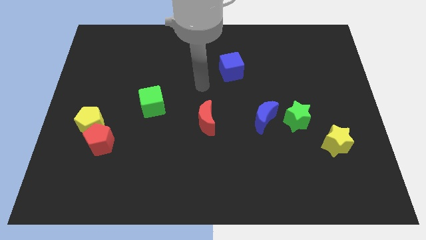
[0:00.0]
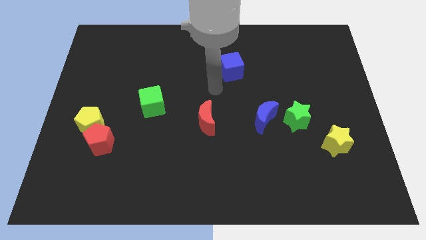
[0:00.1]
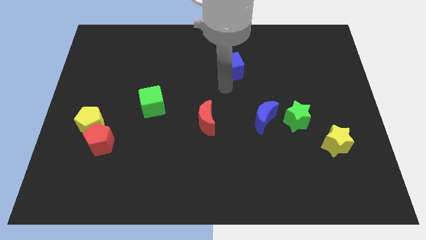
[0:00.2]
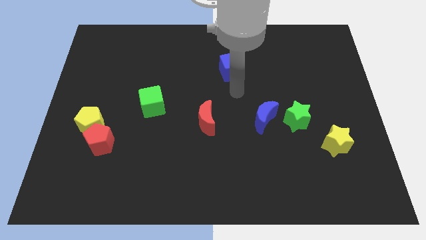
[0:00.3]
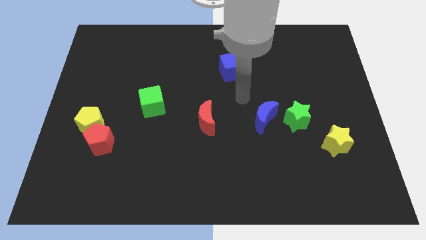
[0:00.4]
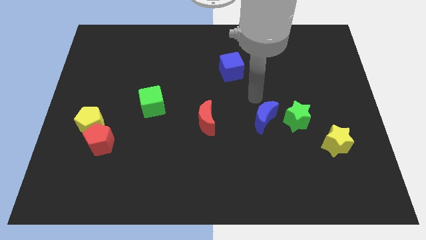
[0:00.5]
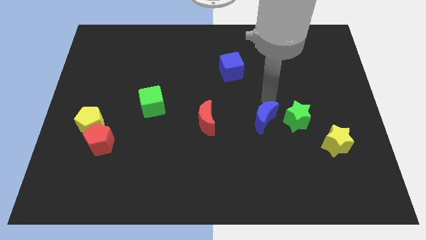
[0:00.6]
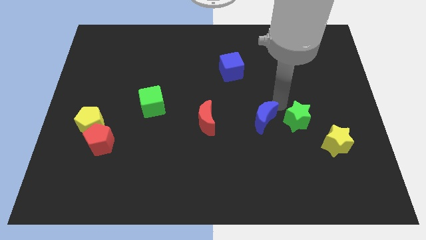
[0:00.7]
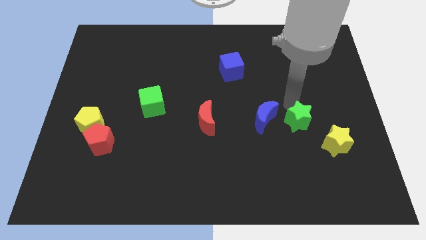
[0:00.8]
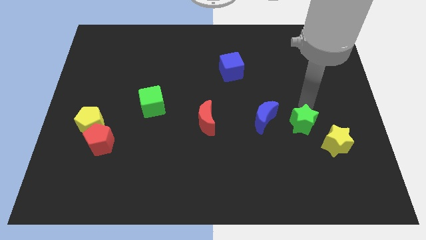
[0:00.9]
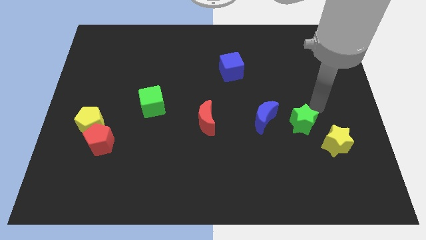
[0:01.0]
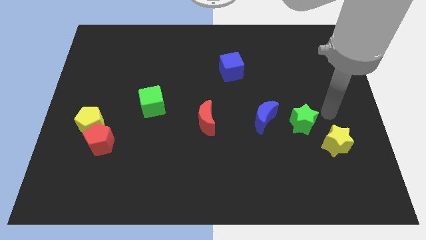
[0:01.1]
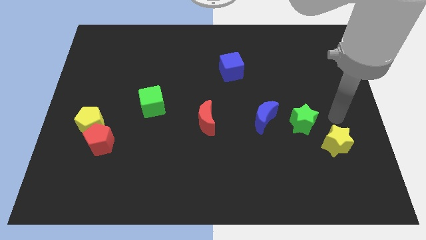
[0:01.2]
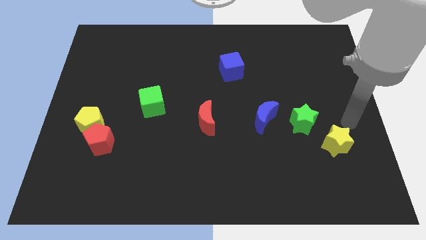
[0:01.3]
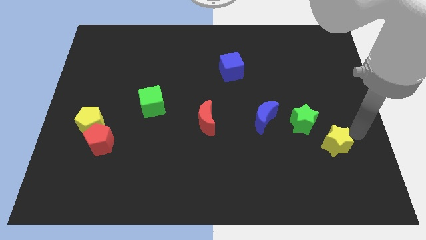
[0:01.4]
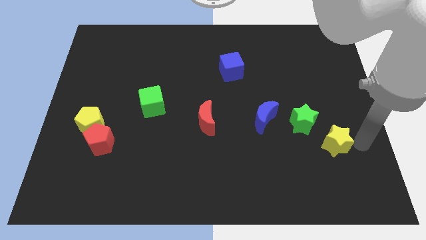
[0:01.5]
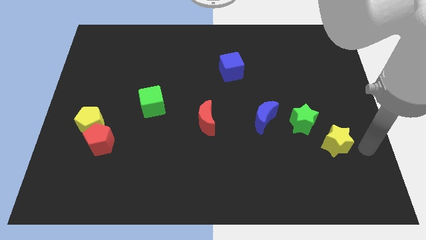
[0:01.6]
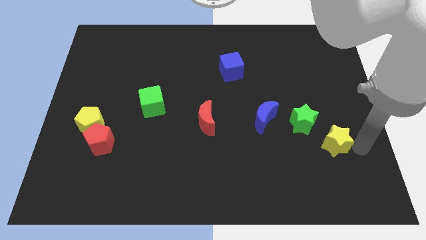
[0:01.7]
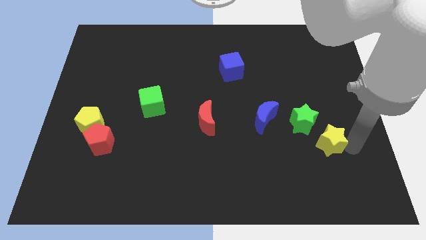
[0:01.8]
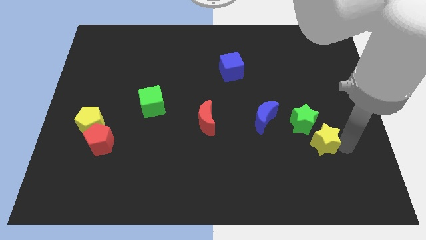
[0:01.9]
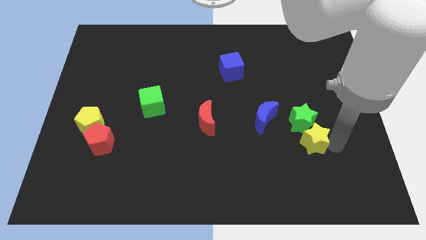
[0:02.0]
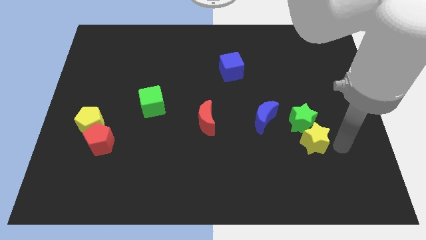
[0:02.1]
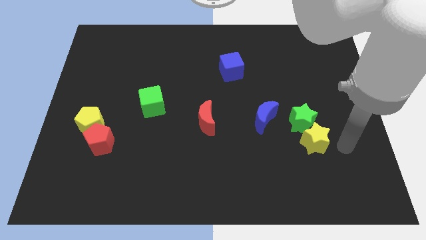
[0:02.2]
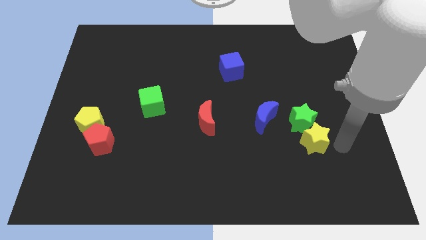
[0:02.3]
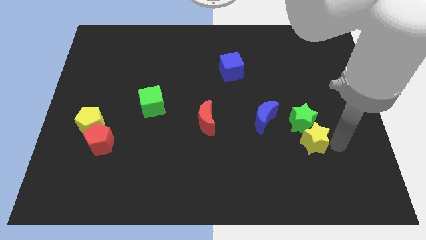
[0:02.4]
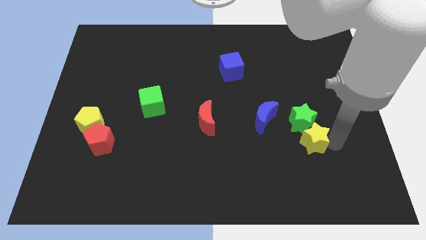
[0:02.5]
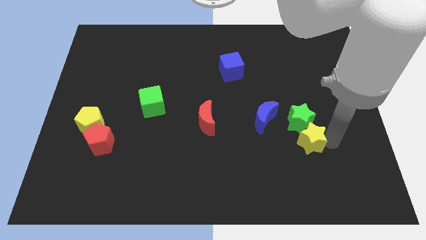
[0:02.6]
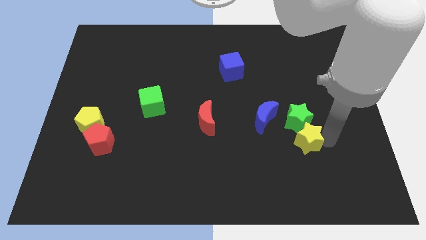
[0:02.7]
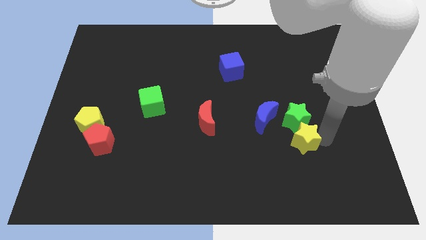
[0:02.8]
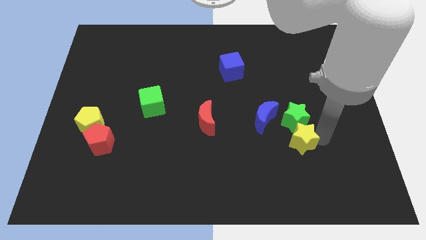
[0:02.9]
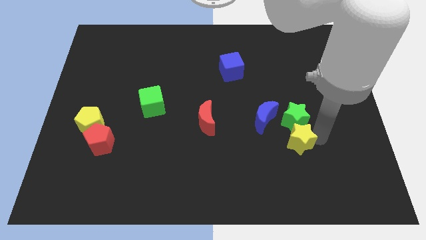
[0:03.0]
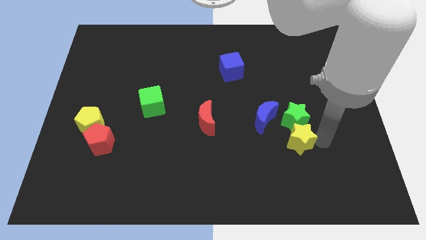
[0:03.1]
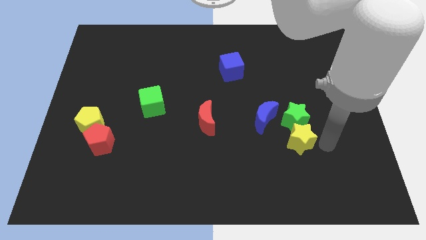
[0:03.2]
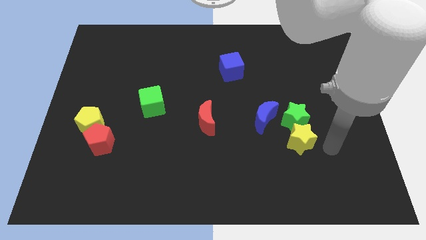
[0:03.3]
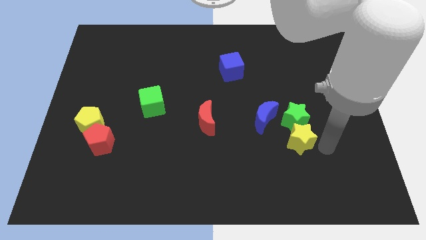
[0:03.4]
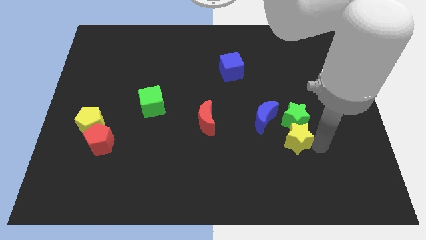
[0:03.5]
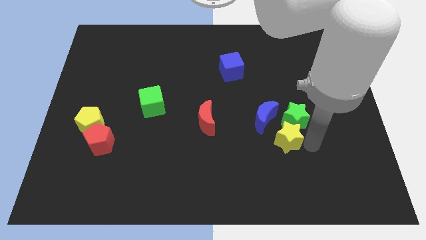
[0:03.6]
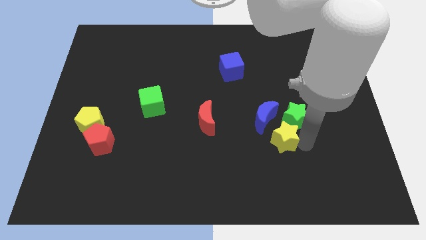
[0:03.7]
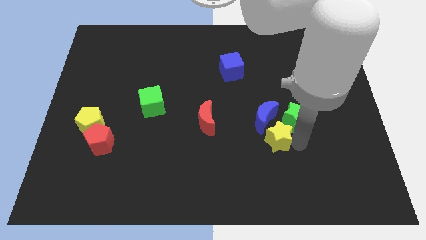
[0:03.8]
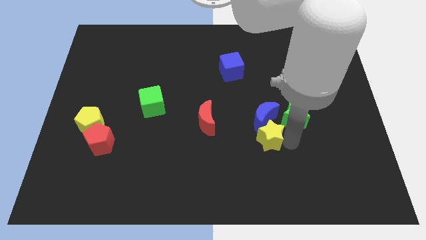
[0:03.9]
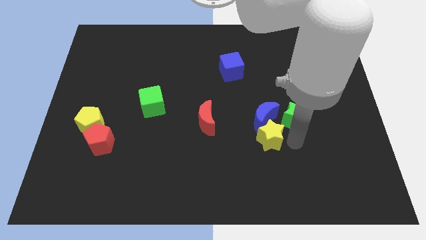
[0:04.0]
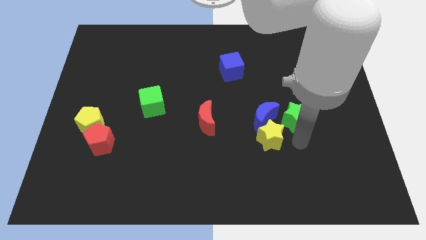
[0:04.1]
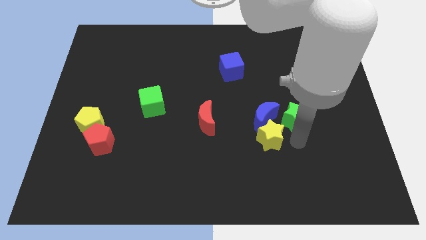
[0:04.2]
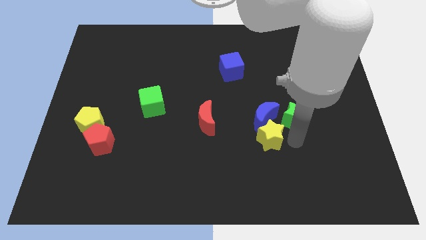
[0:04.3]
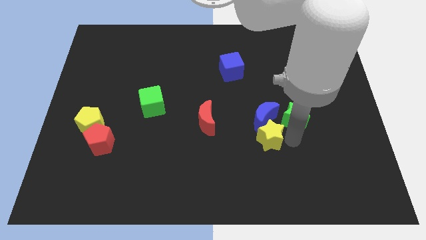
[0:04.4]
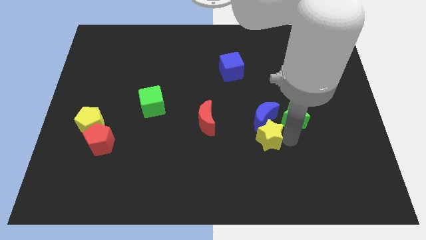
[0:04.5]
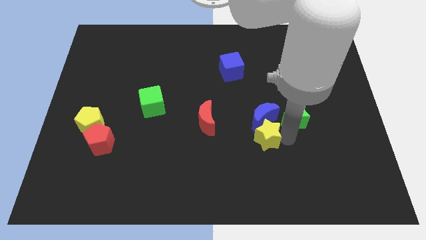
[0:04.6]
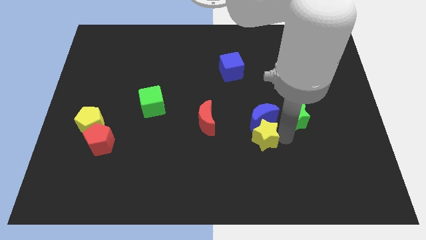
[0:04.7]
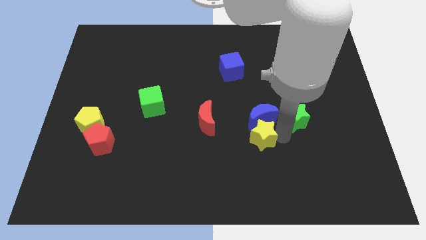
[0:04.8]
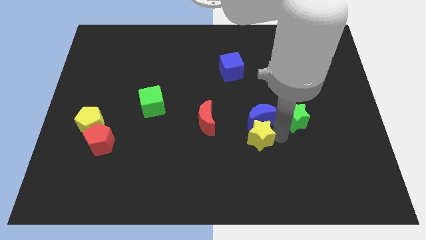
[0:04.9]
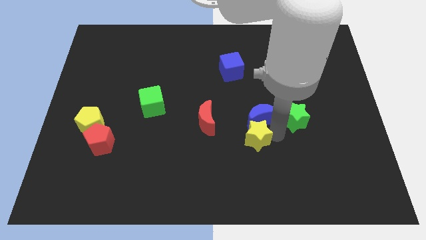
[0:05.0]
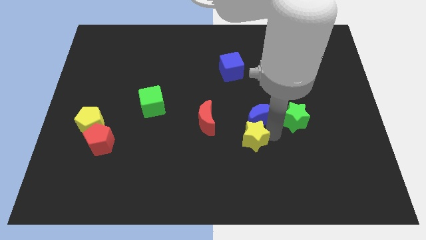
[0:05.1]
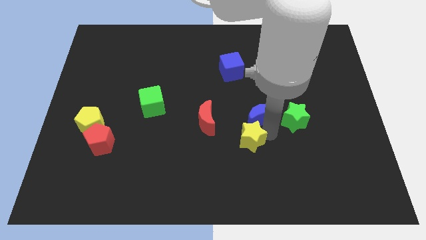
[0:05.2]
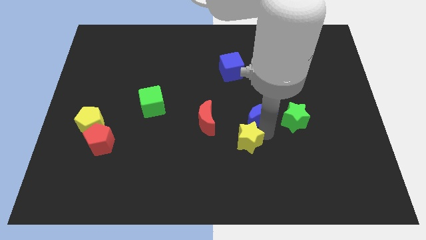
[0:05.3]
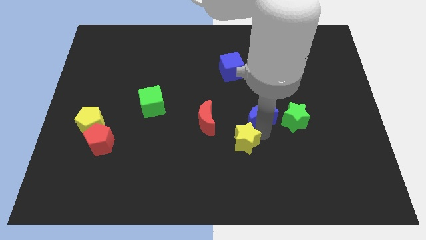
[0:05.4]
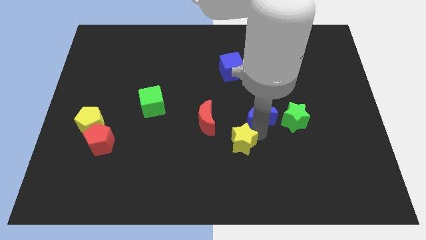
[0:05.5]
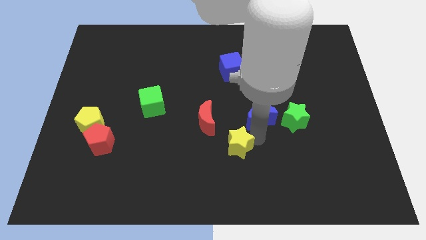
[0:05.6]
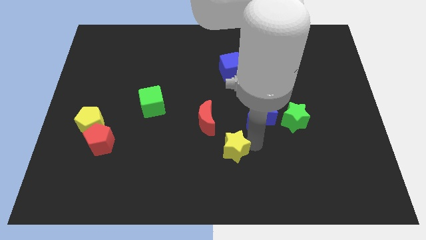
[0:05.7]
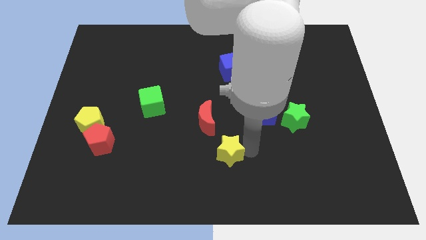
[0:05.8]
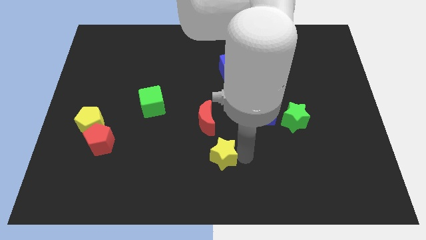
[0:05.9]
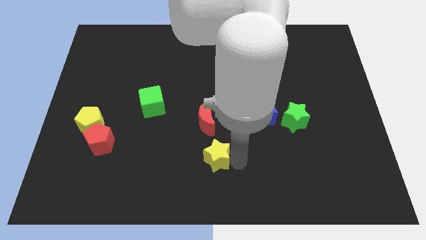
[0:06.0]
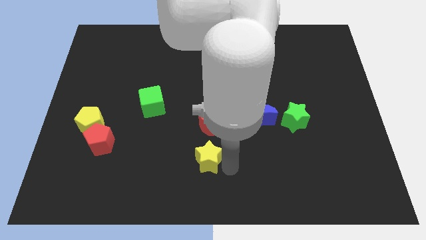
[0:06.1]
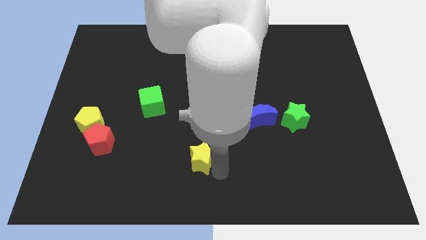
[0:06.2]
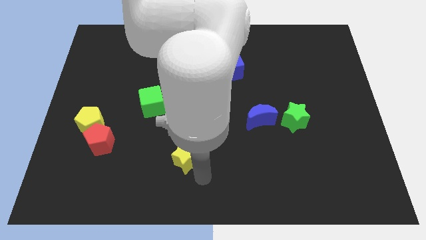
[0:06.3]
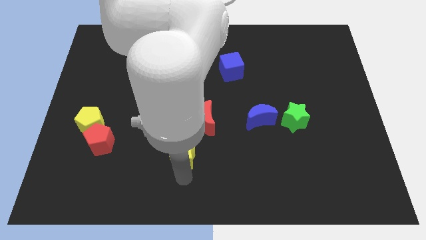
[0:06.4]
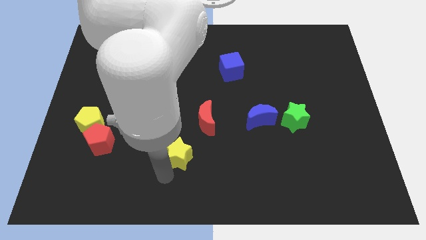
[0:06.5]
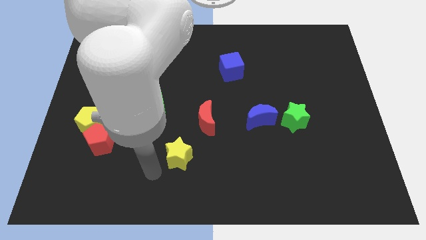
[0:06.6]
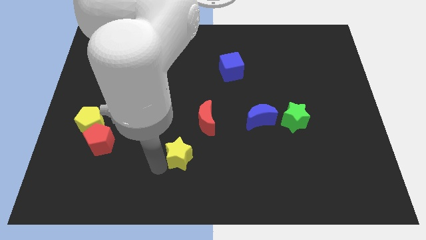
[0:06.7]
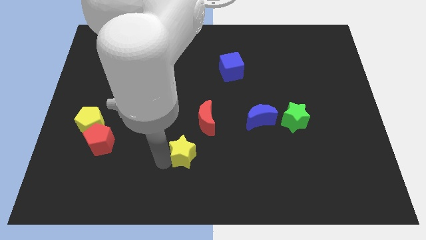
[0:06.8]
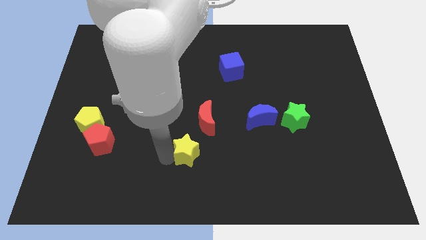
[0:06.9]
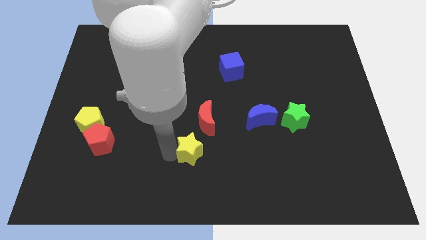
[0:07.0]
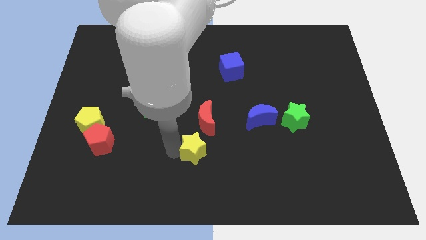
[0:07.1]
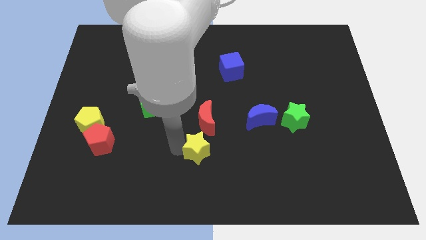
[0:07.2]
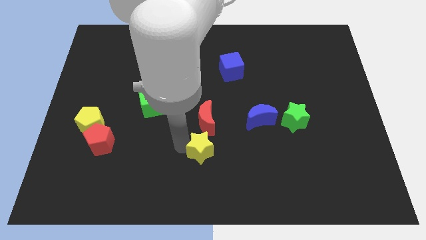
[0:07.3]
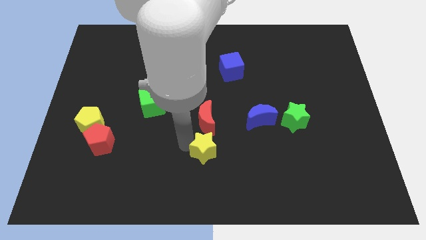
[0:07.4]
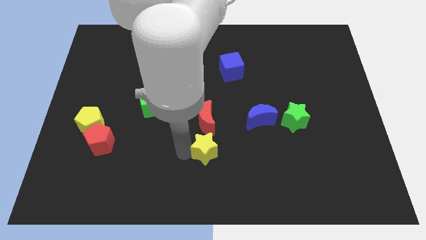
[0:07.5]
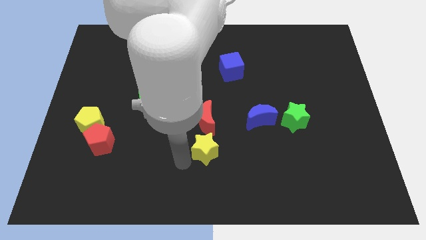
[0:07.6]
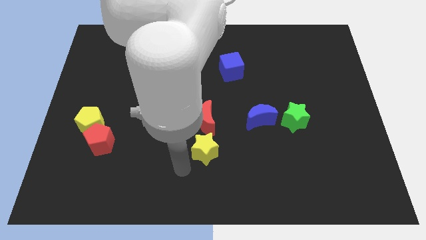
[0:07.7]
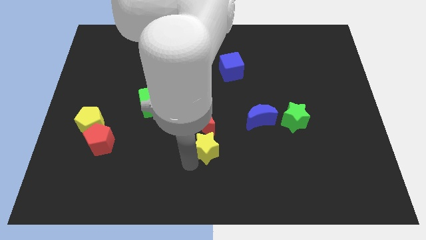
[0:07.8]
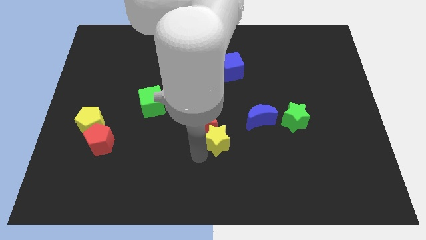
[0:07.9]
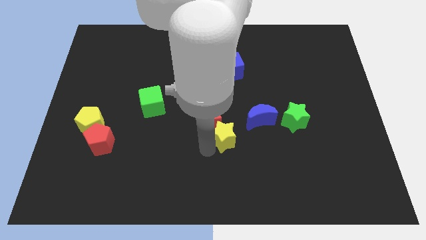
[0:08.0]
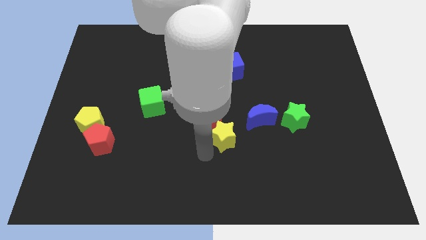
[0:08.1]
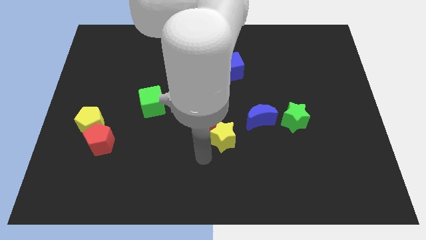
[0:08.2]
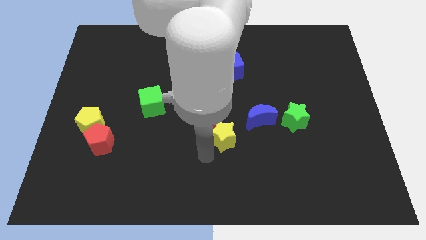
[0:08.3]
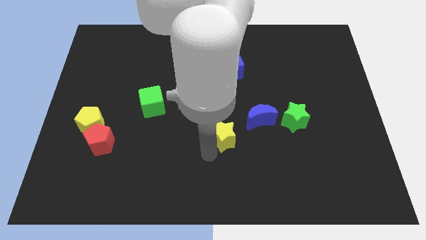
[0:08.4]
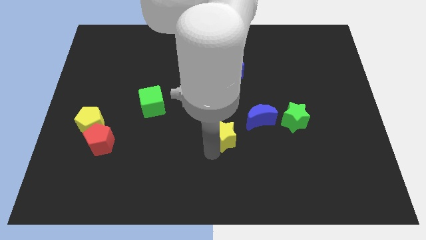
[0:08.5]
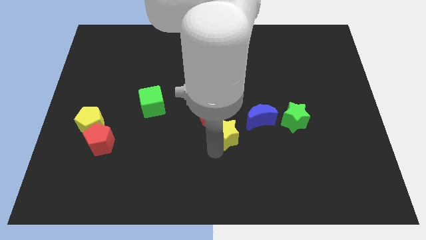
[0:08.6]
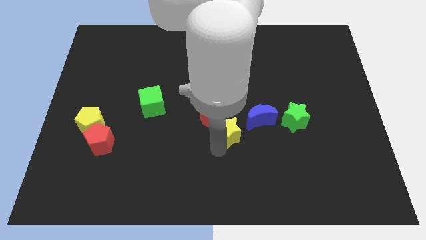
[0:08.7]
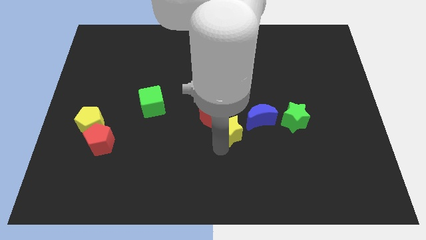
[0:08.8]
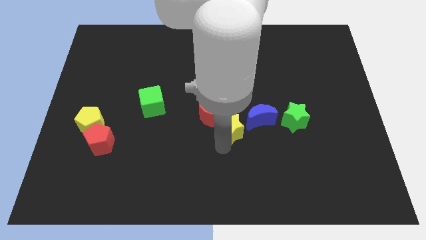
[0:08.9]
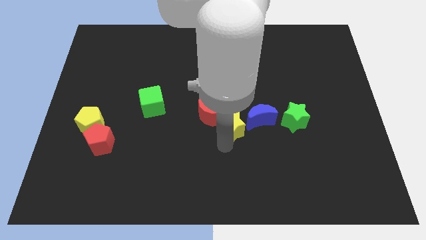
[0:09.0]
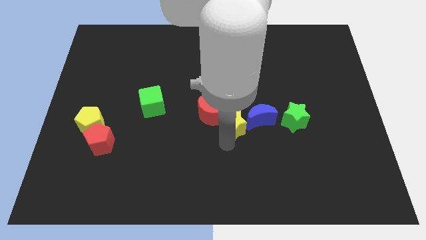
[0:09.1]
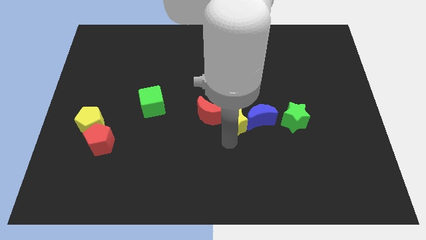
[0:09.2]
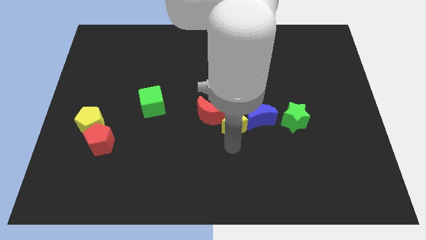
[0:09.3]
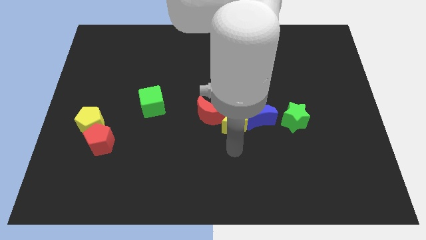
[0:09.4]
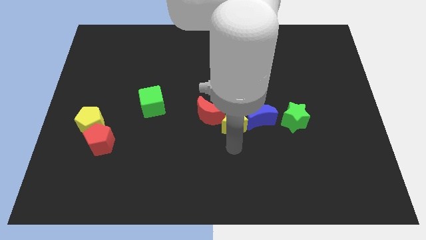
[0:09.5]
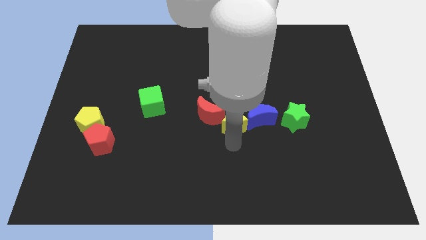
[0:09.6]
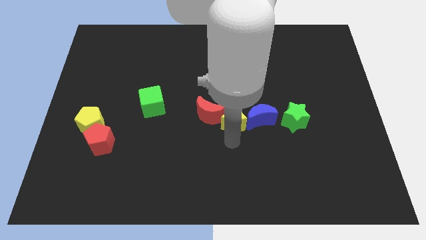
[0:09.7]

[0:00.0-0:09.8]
slide the yellow star below the blue cube
